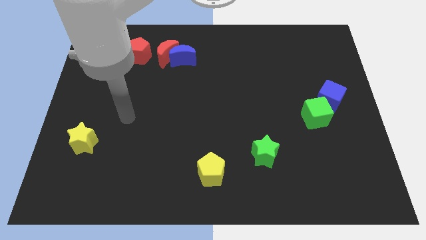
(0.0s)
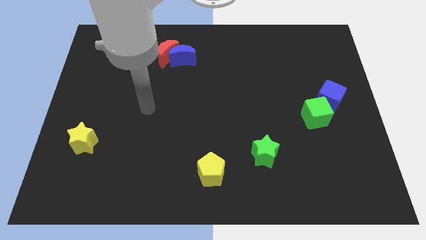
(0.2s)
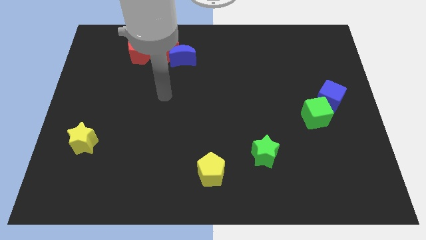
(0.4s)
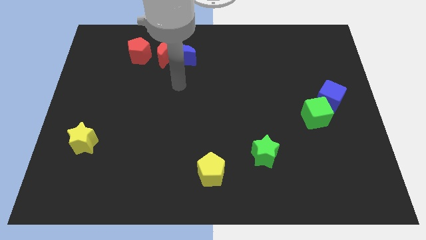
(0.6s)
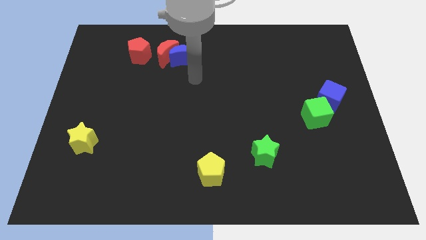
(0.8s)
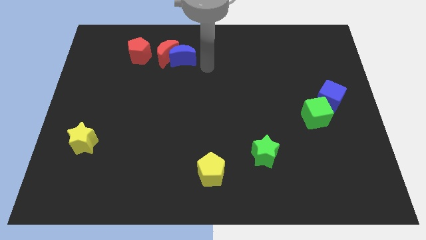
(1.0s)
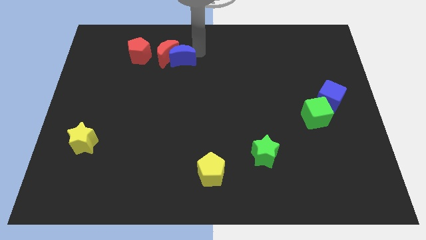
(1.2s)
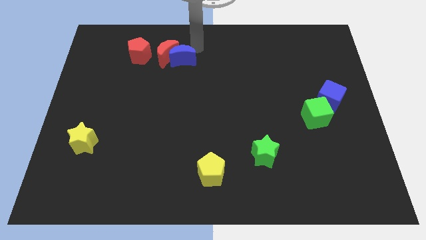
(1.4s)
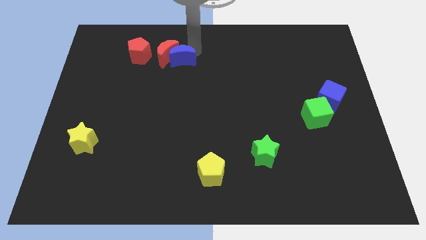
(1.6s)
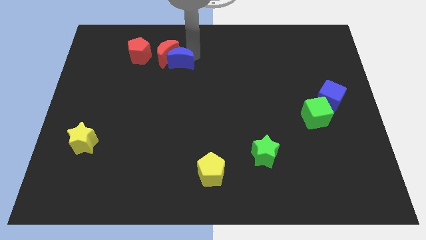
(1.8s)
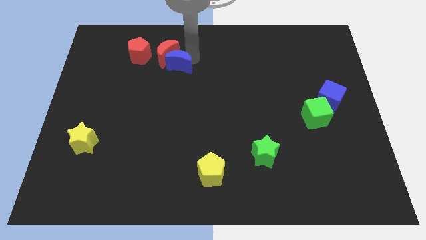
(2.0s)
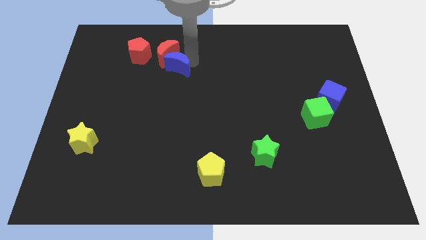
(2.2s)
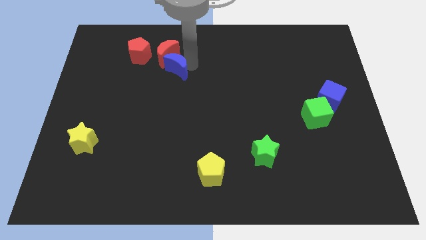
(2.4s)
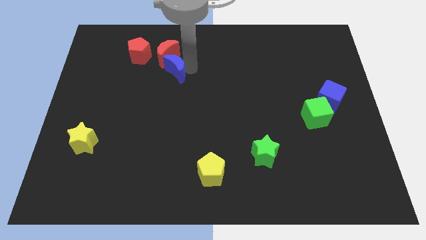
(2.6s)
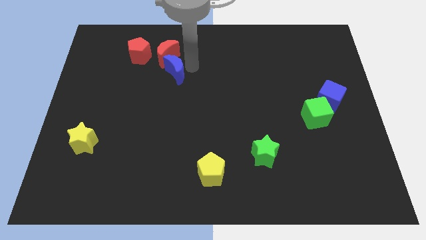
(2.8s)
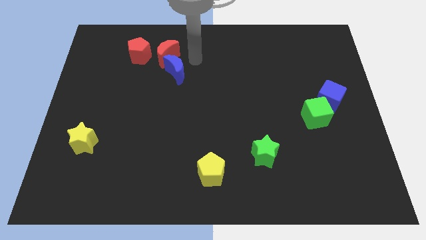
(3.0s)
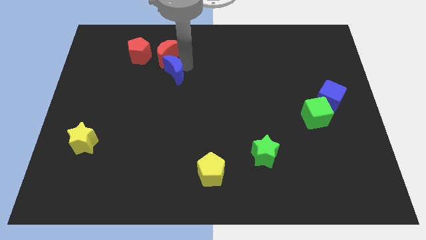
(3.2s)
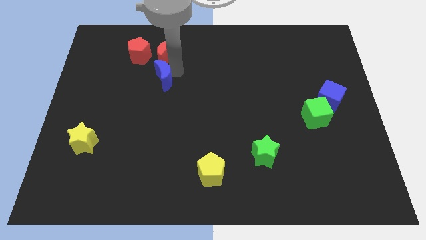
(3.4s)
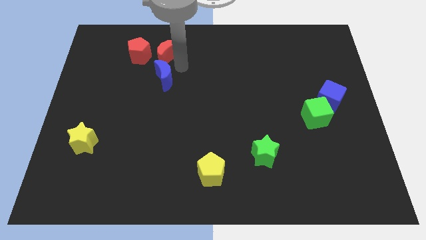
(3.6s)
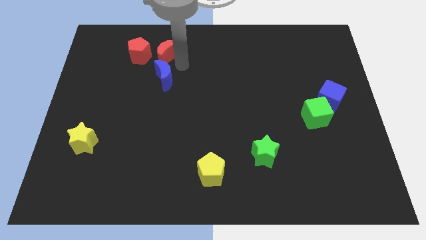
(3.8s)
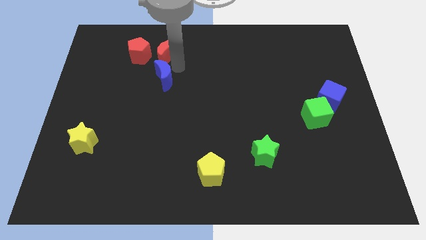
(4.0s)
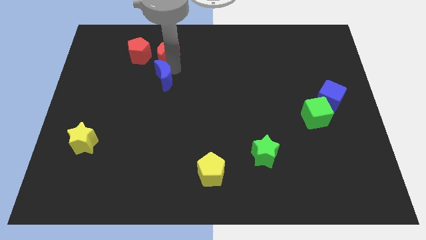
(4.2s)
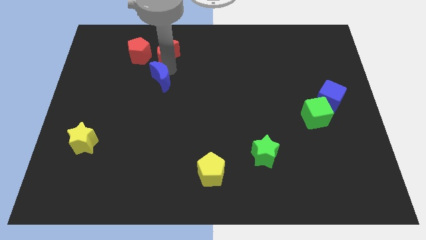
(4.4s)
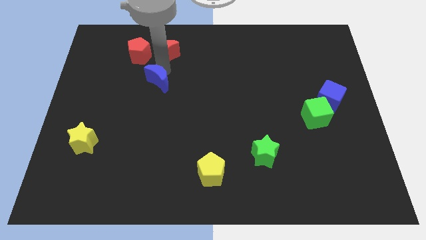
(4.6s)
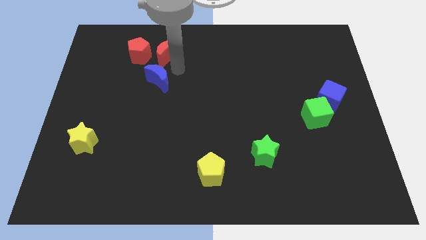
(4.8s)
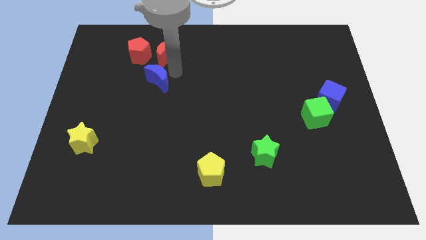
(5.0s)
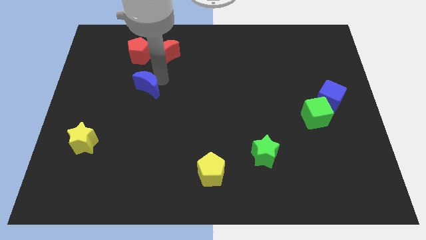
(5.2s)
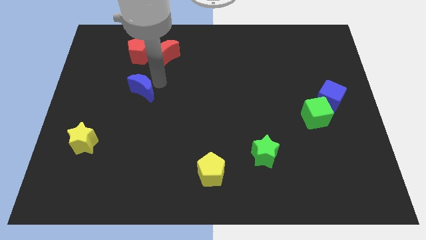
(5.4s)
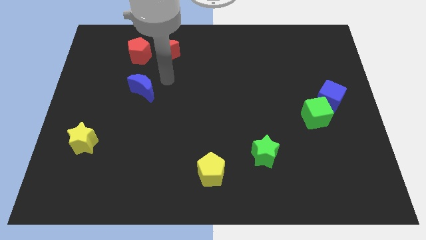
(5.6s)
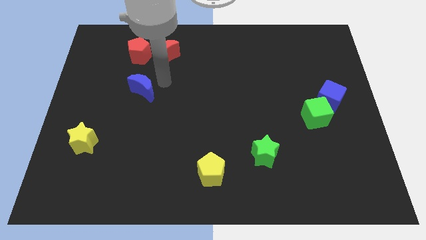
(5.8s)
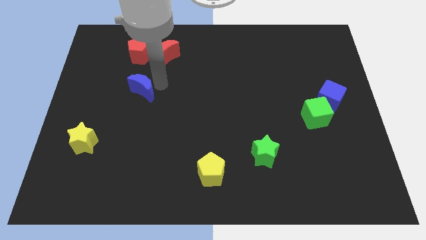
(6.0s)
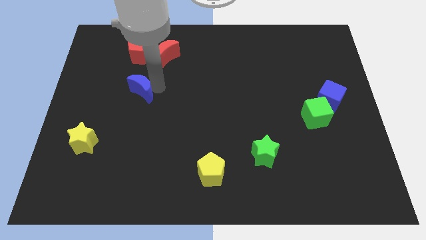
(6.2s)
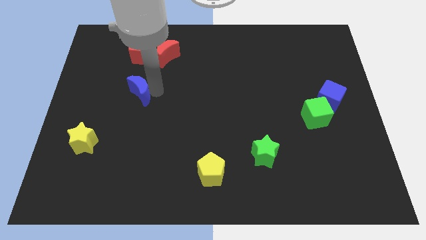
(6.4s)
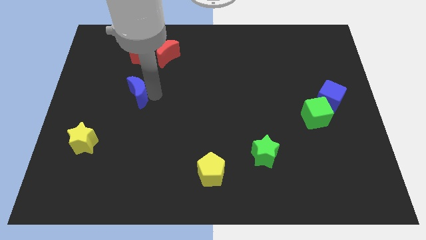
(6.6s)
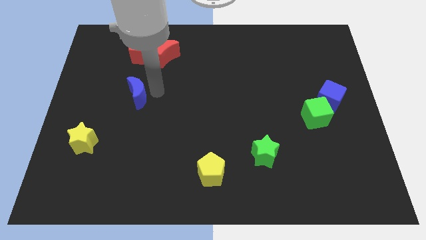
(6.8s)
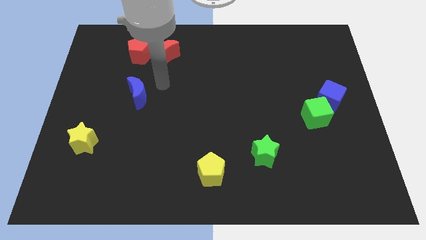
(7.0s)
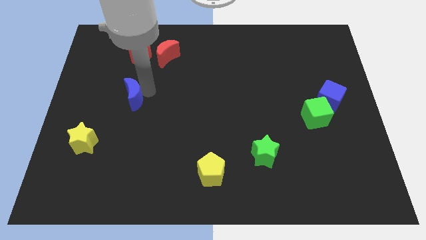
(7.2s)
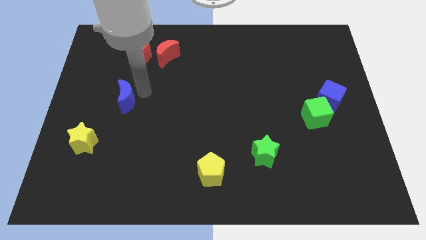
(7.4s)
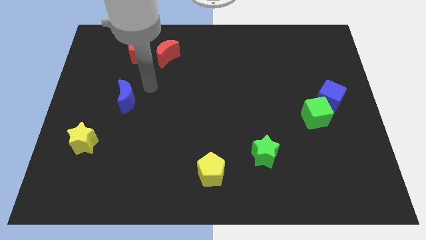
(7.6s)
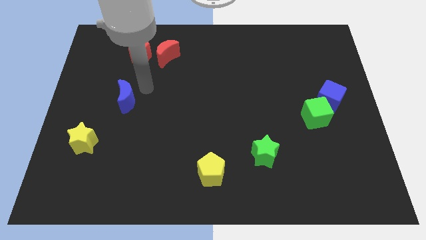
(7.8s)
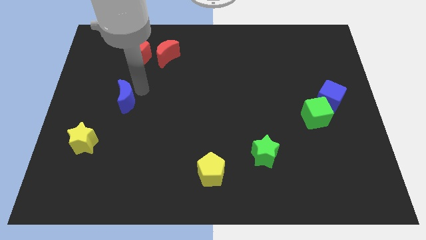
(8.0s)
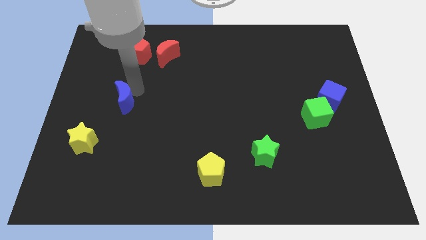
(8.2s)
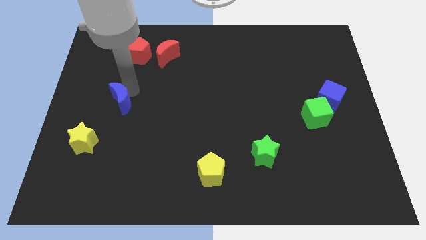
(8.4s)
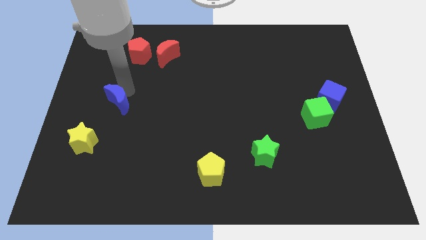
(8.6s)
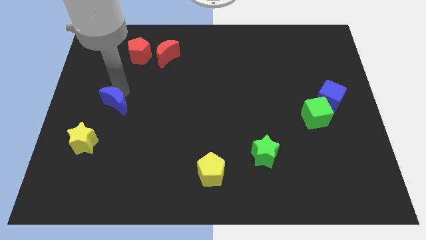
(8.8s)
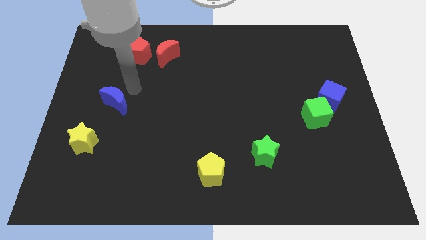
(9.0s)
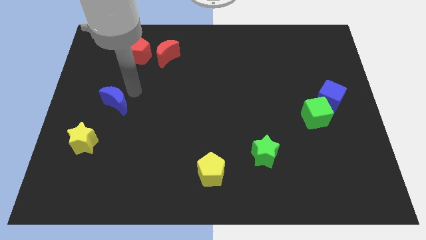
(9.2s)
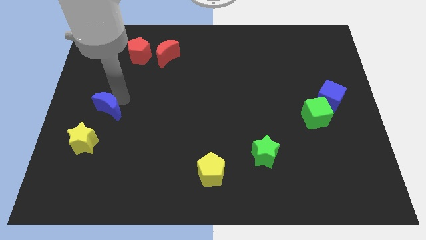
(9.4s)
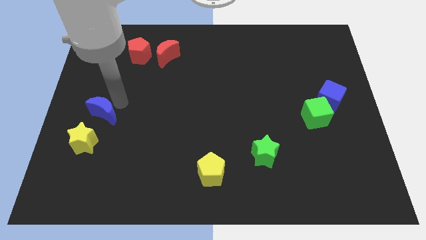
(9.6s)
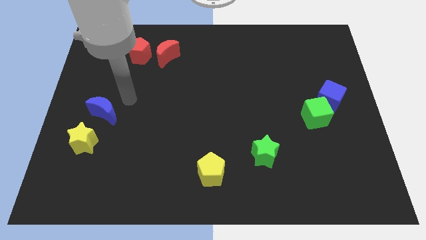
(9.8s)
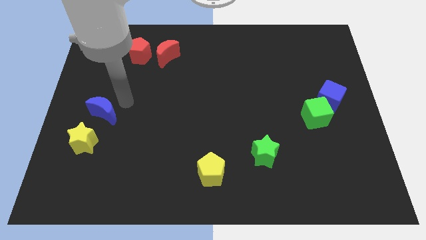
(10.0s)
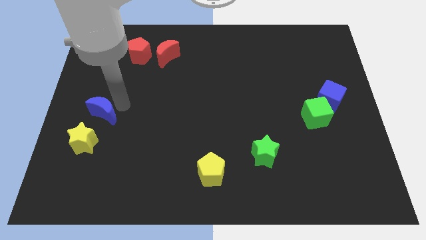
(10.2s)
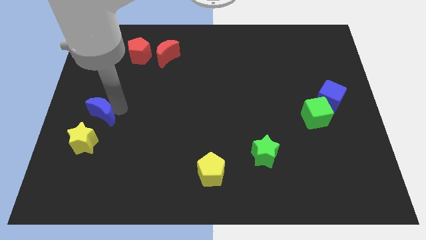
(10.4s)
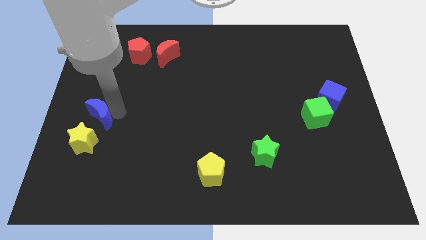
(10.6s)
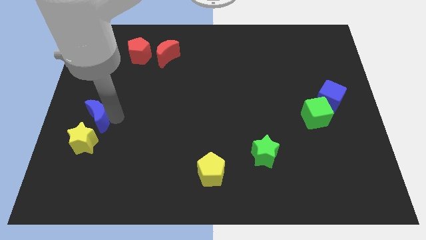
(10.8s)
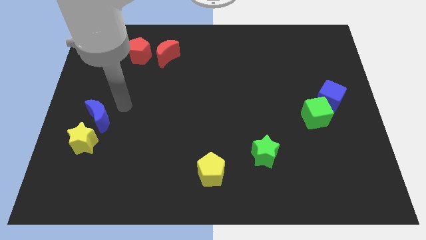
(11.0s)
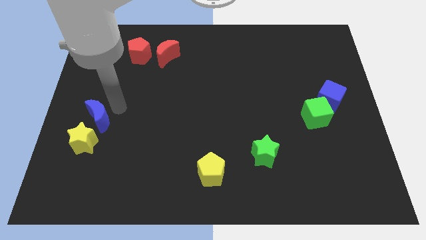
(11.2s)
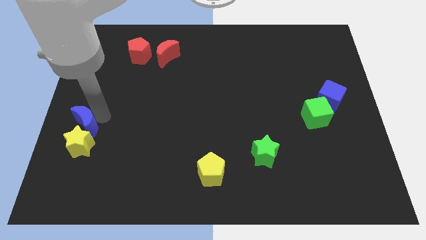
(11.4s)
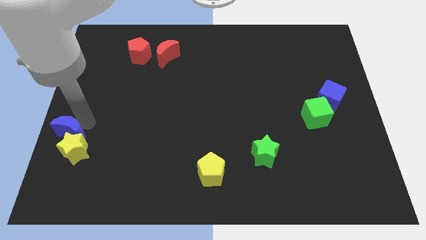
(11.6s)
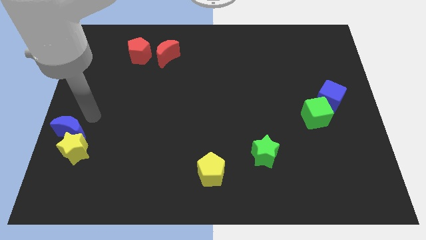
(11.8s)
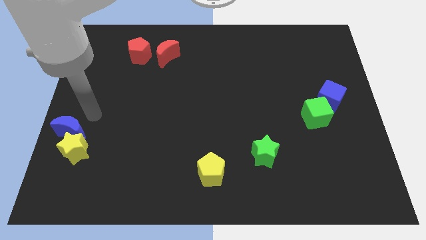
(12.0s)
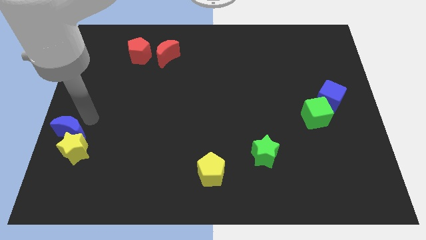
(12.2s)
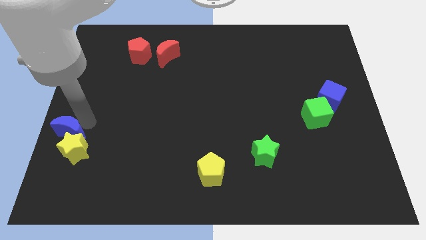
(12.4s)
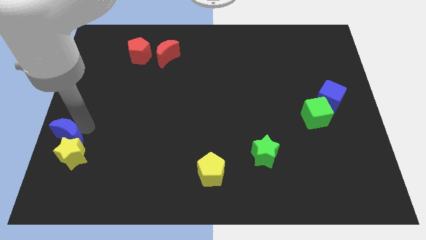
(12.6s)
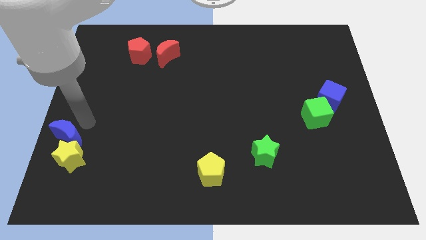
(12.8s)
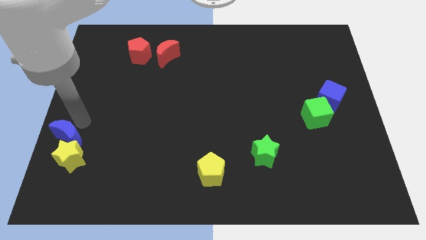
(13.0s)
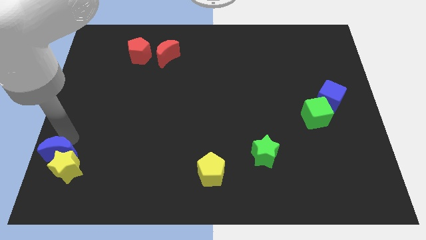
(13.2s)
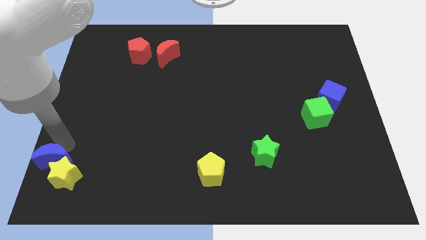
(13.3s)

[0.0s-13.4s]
put the blue moon to the bottom left of the board
